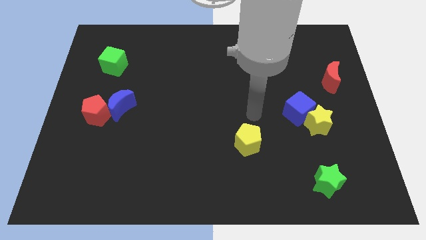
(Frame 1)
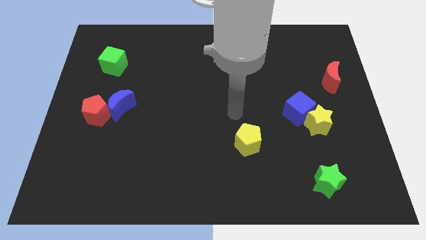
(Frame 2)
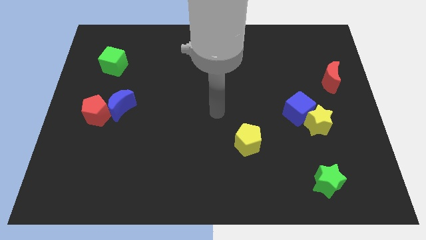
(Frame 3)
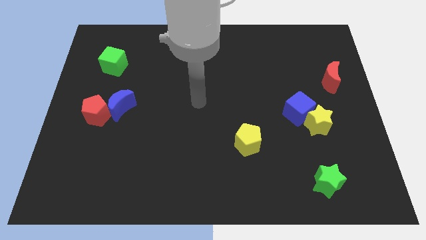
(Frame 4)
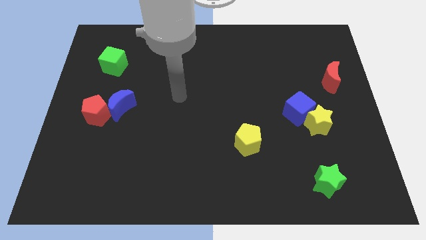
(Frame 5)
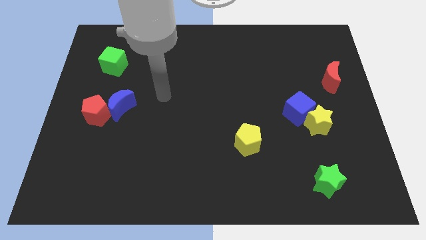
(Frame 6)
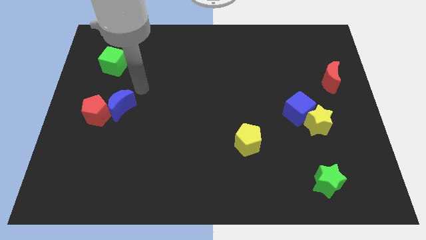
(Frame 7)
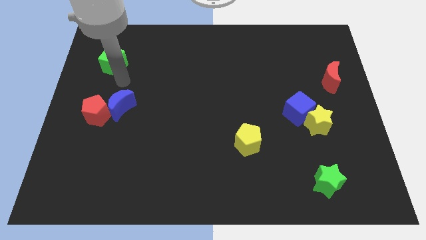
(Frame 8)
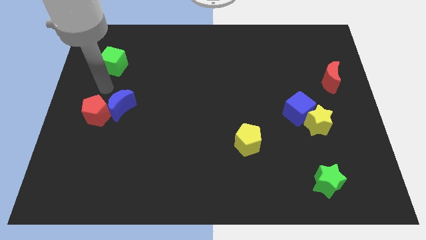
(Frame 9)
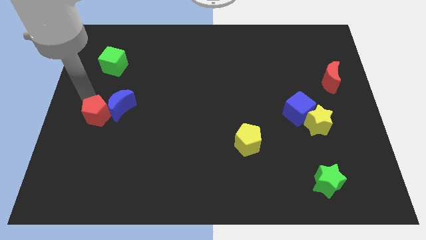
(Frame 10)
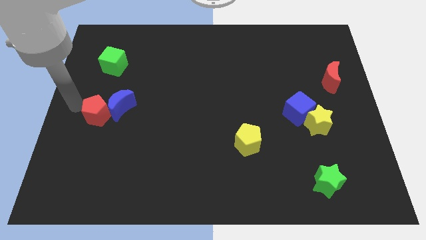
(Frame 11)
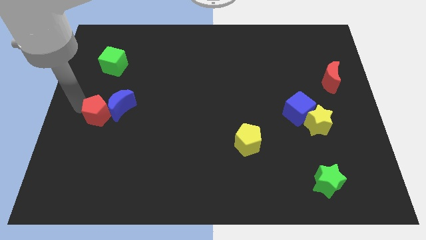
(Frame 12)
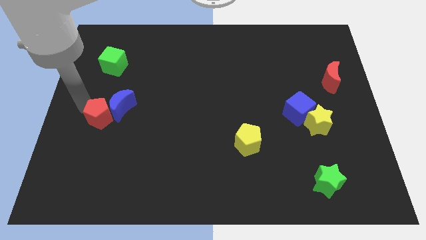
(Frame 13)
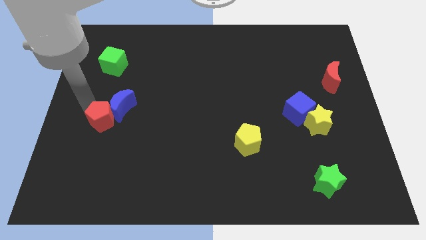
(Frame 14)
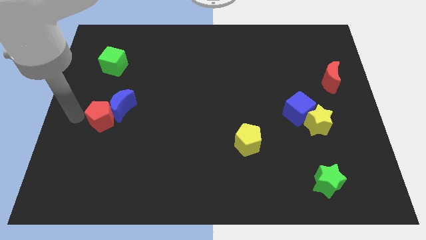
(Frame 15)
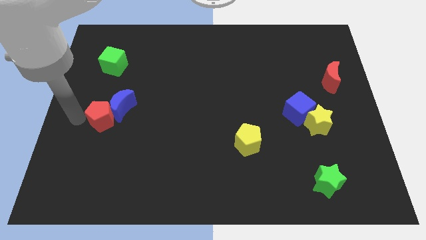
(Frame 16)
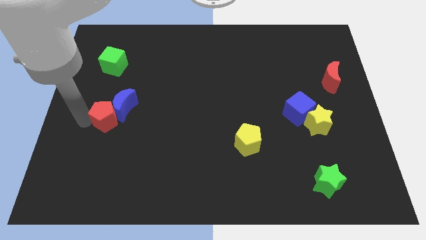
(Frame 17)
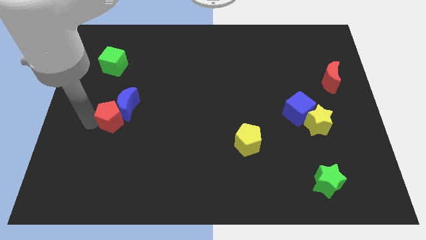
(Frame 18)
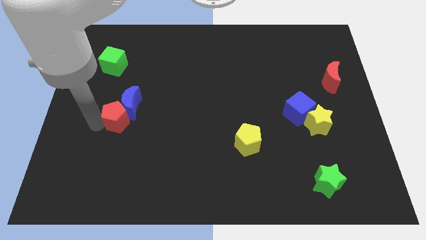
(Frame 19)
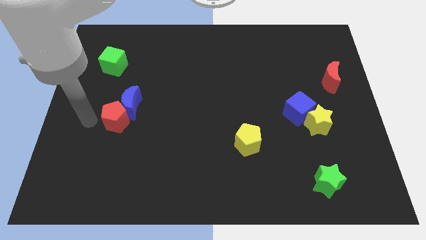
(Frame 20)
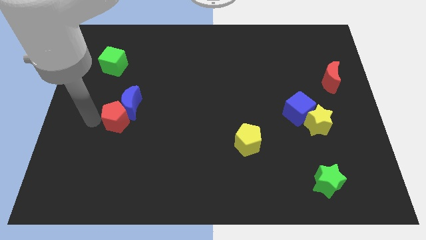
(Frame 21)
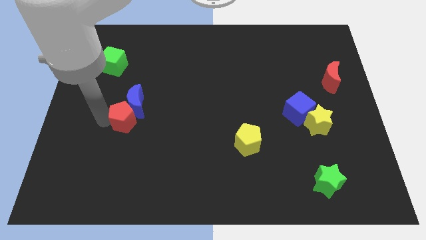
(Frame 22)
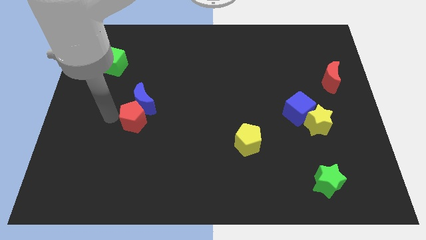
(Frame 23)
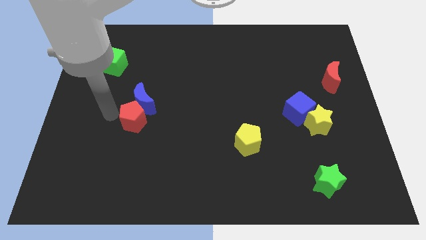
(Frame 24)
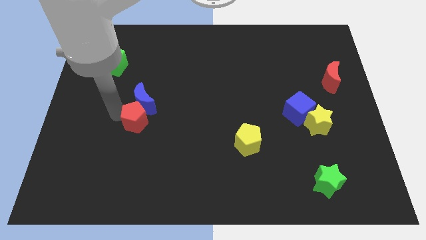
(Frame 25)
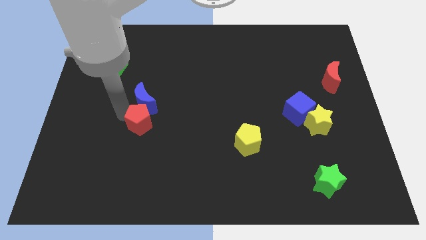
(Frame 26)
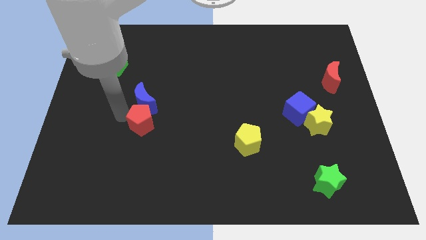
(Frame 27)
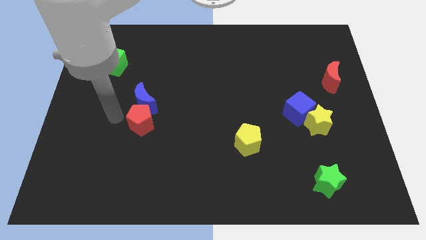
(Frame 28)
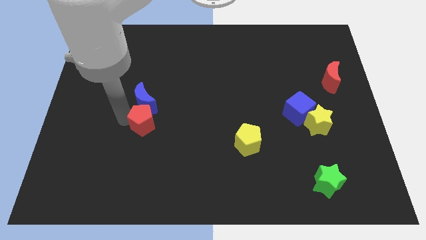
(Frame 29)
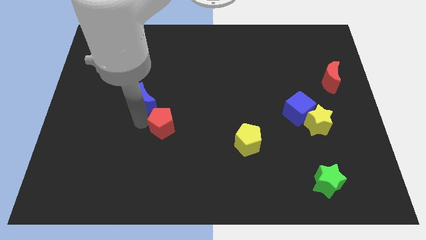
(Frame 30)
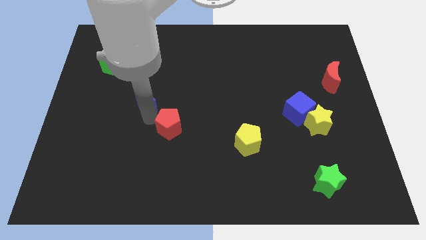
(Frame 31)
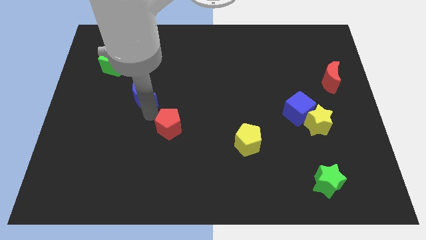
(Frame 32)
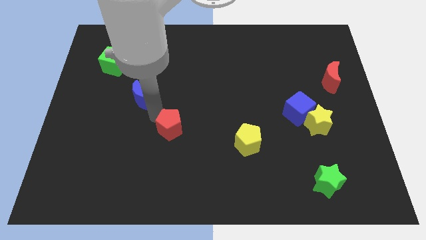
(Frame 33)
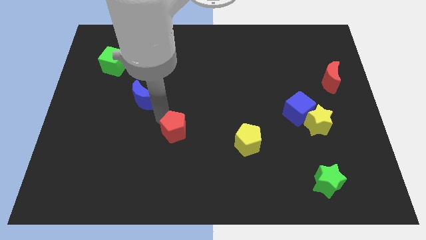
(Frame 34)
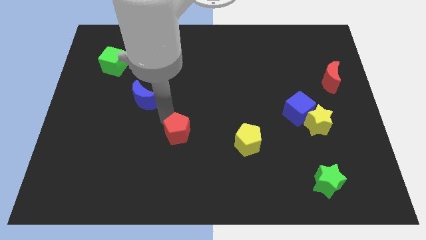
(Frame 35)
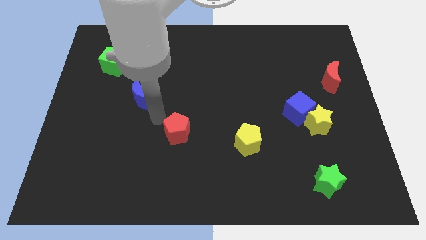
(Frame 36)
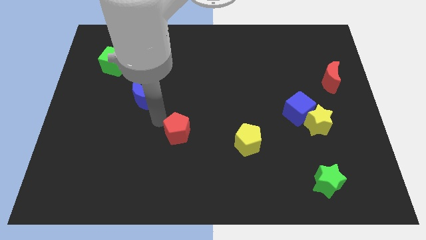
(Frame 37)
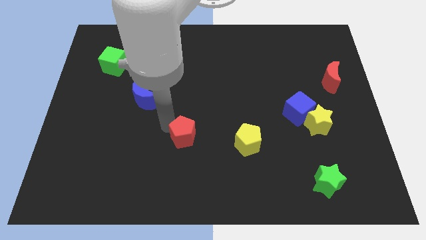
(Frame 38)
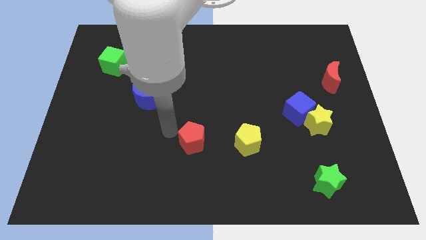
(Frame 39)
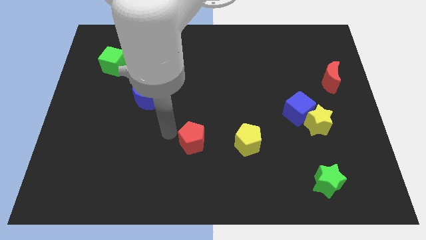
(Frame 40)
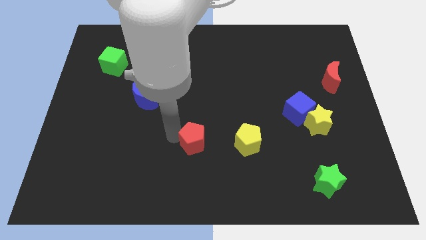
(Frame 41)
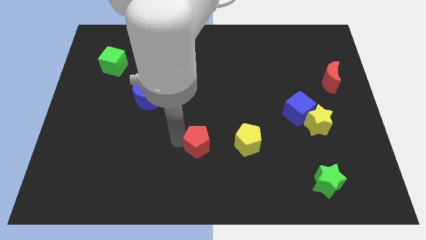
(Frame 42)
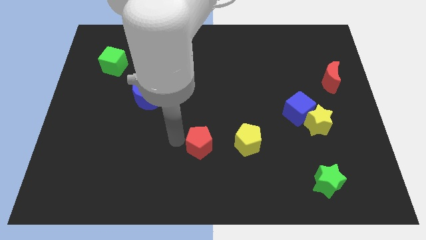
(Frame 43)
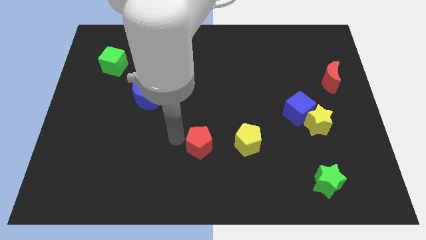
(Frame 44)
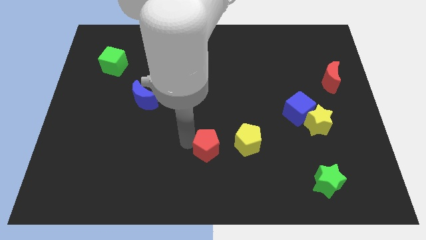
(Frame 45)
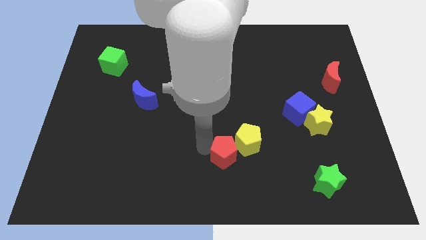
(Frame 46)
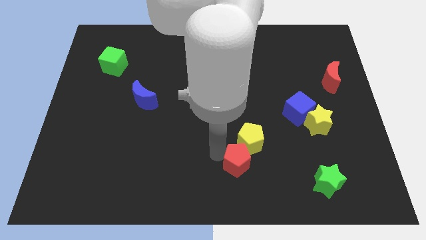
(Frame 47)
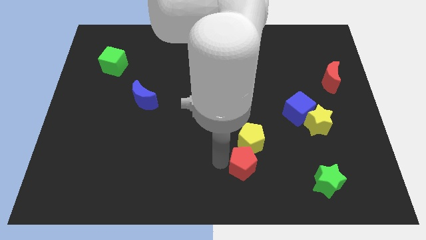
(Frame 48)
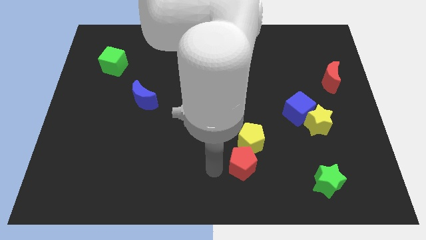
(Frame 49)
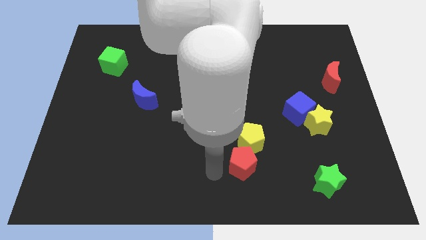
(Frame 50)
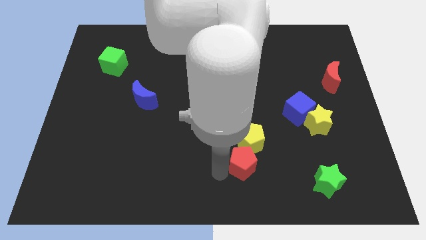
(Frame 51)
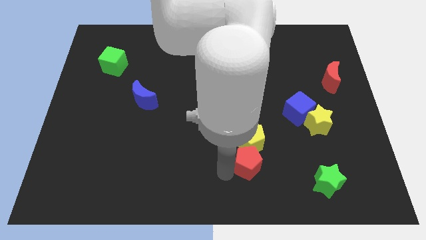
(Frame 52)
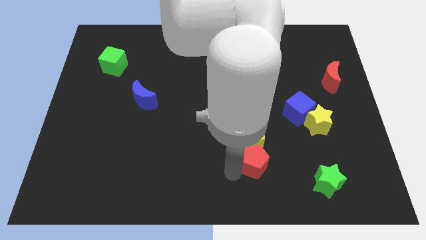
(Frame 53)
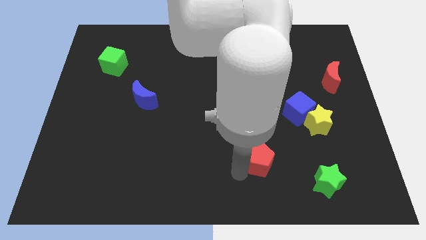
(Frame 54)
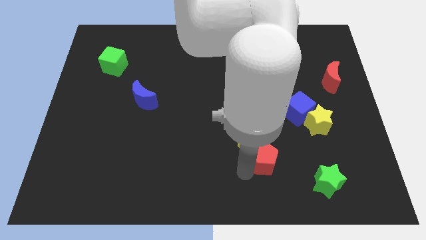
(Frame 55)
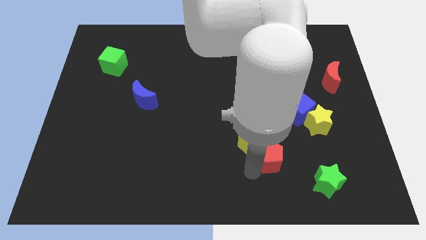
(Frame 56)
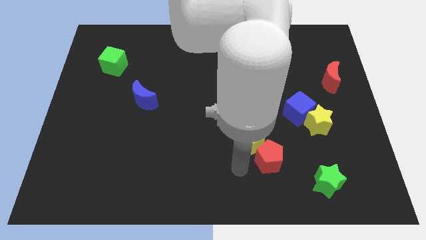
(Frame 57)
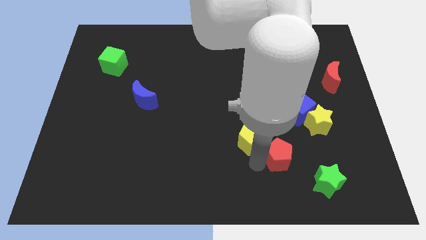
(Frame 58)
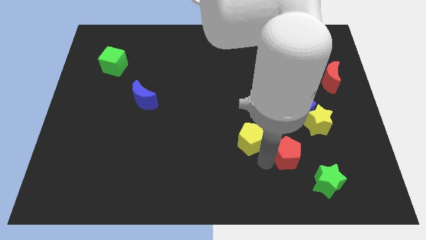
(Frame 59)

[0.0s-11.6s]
push the red pentagon to the bottom of the blue cube

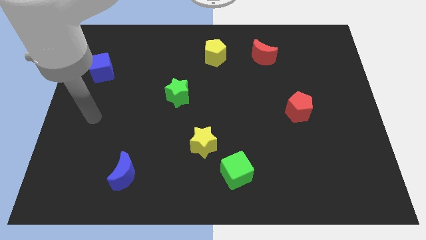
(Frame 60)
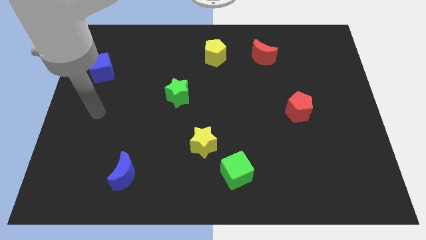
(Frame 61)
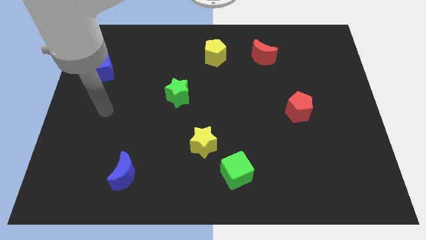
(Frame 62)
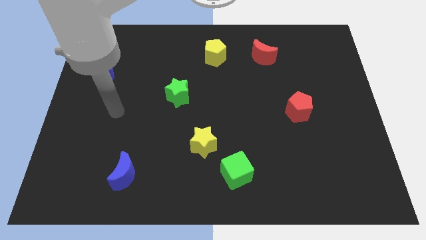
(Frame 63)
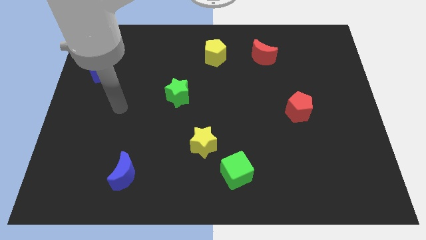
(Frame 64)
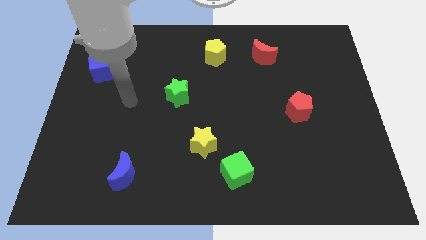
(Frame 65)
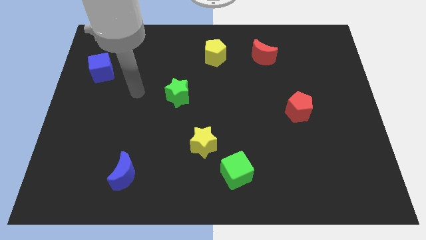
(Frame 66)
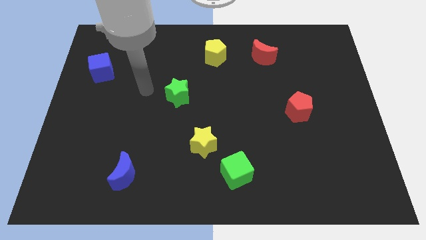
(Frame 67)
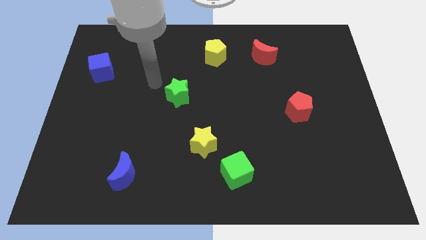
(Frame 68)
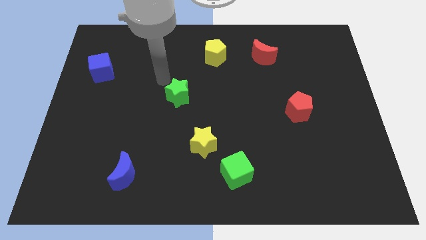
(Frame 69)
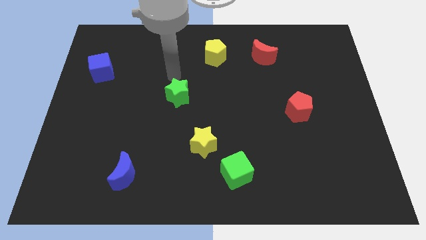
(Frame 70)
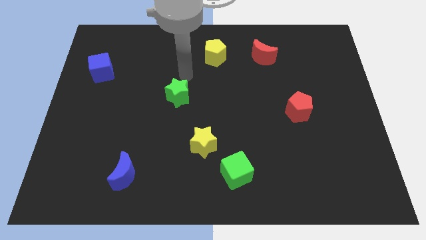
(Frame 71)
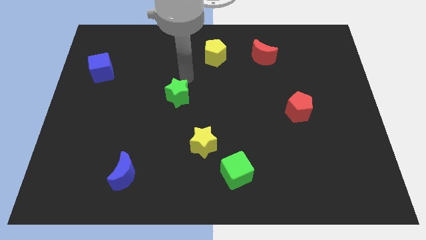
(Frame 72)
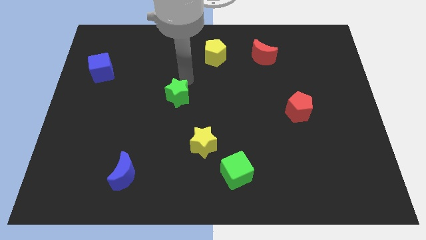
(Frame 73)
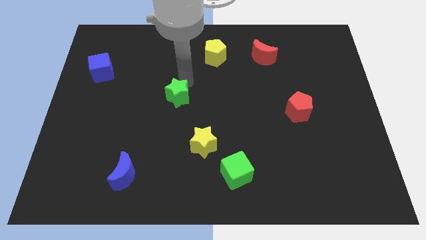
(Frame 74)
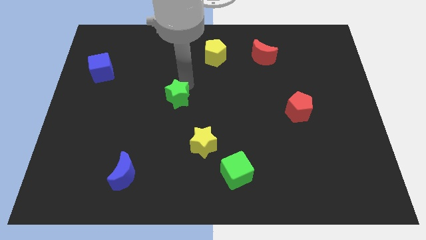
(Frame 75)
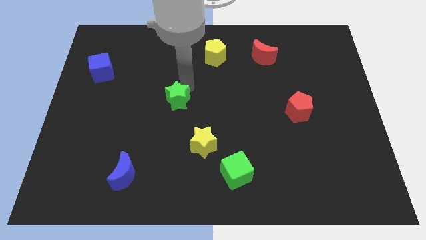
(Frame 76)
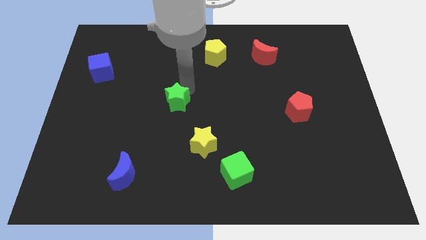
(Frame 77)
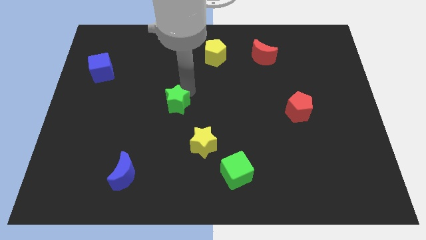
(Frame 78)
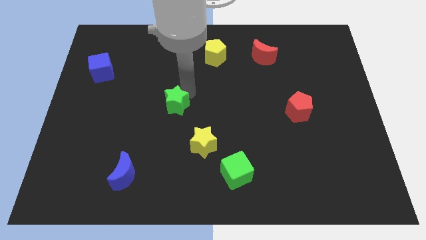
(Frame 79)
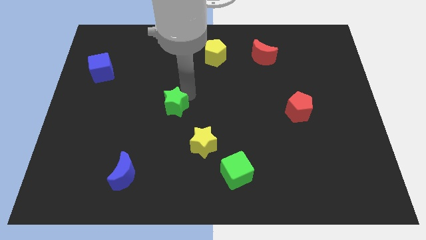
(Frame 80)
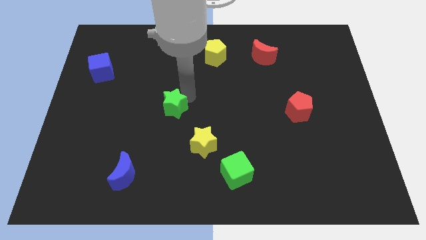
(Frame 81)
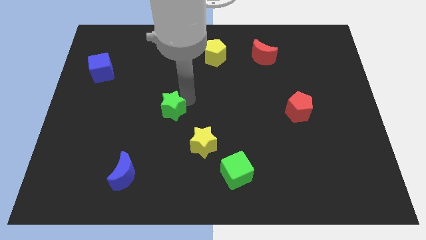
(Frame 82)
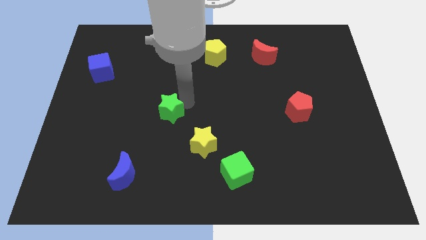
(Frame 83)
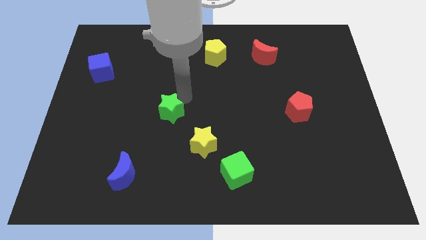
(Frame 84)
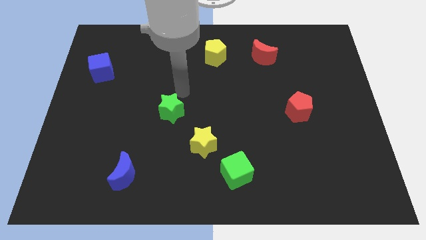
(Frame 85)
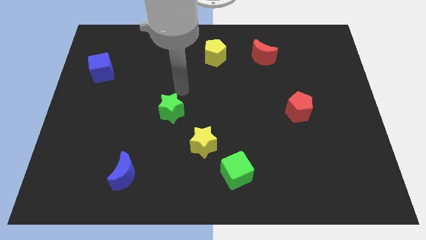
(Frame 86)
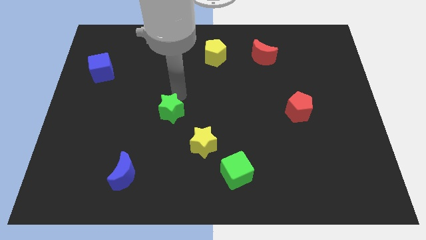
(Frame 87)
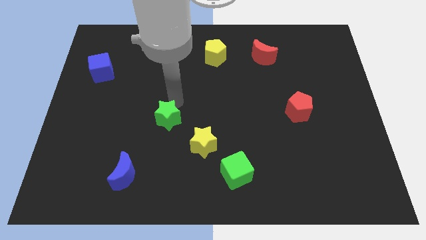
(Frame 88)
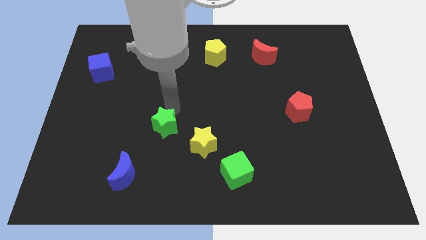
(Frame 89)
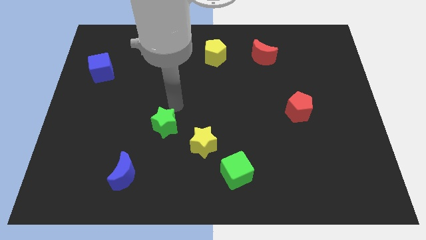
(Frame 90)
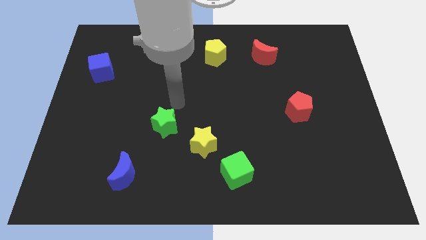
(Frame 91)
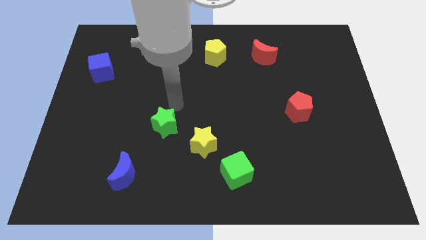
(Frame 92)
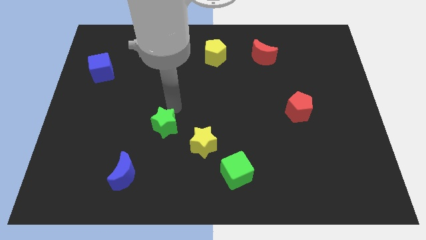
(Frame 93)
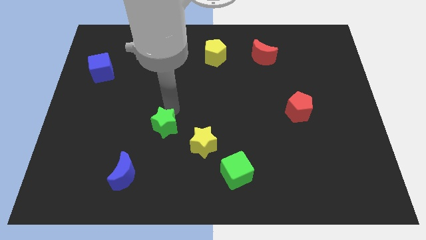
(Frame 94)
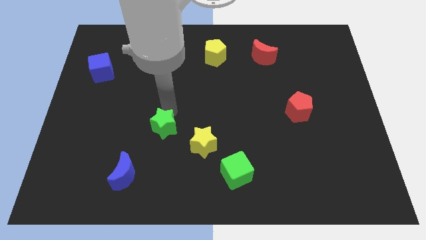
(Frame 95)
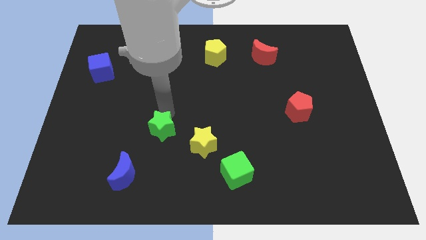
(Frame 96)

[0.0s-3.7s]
slide the green star just left of the yellow star
